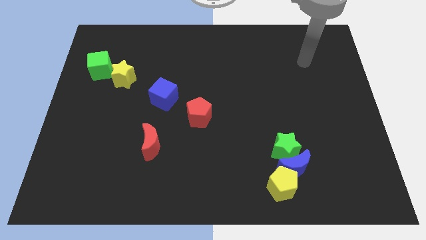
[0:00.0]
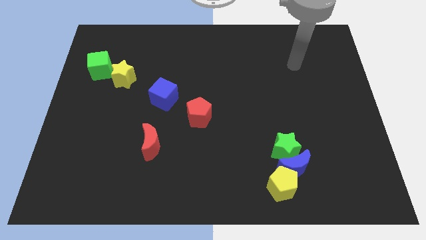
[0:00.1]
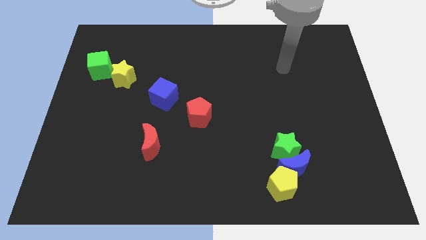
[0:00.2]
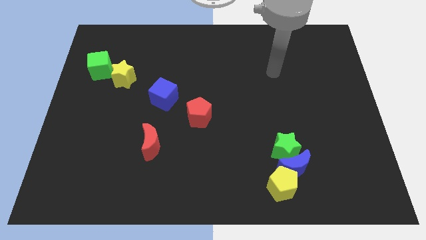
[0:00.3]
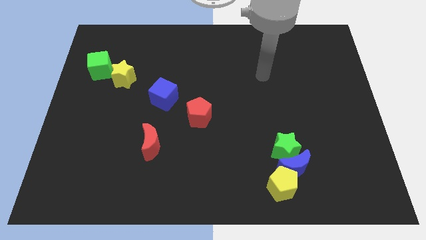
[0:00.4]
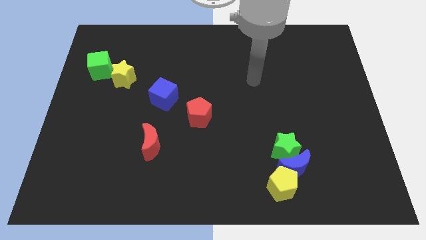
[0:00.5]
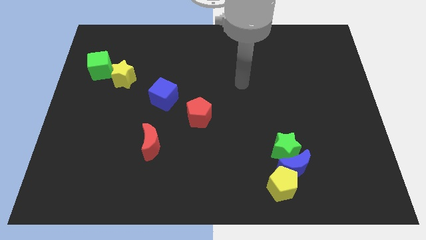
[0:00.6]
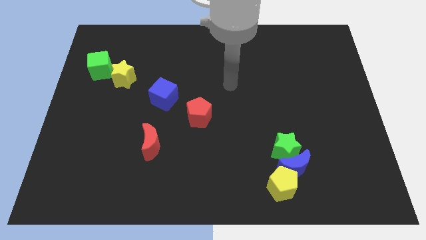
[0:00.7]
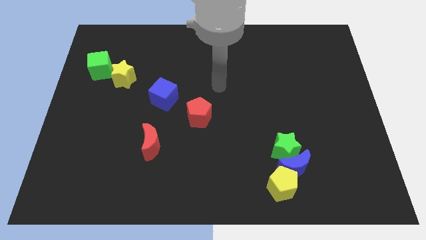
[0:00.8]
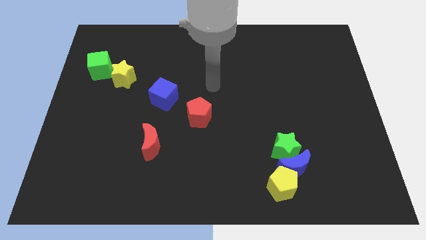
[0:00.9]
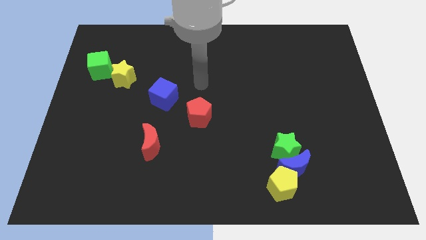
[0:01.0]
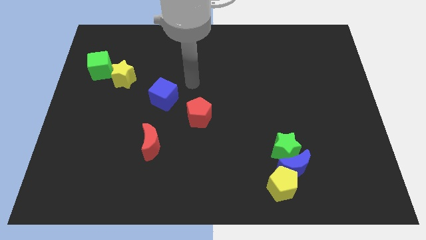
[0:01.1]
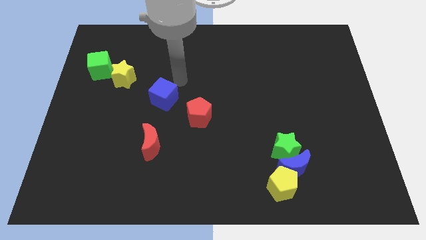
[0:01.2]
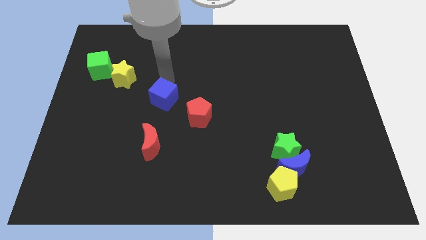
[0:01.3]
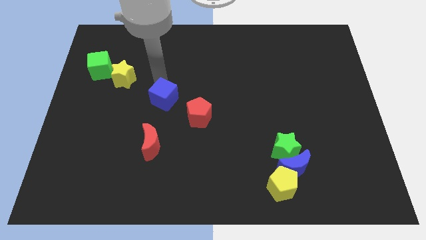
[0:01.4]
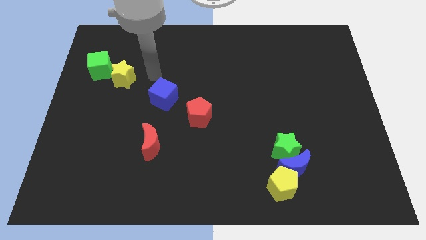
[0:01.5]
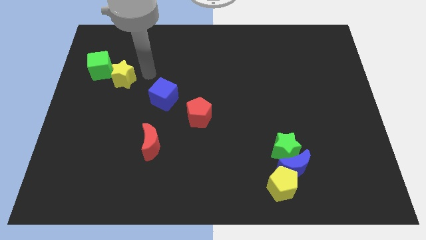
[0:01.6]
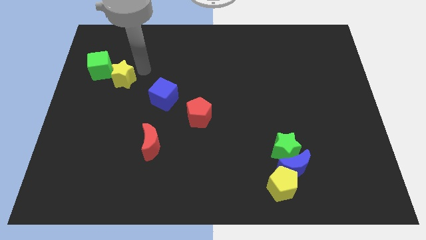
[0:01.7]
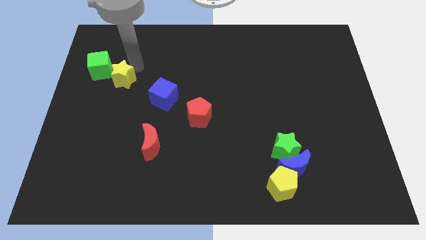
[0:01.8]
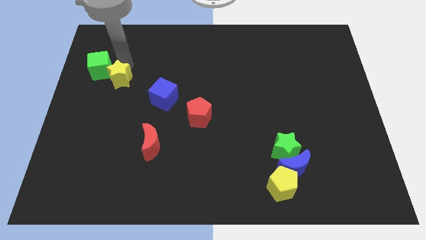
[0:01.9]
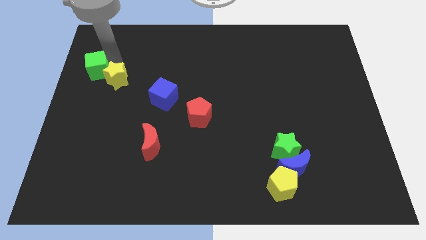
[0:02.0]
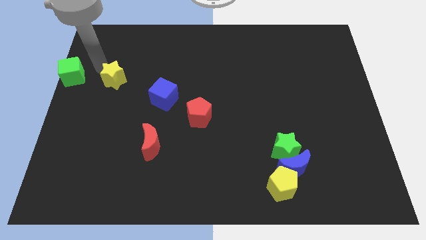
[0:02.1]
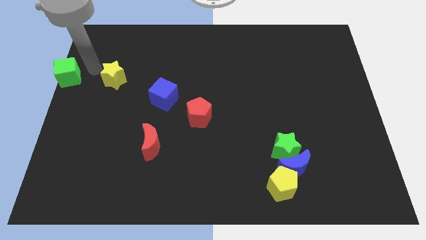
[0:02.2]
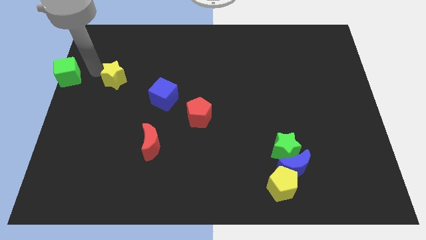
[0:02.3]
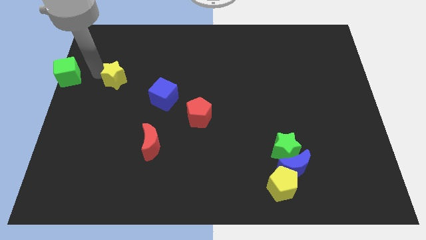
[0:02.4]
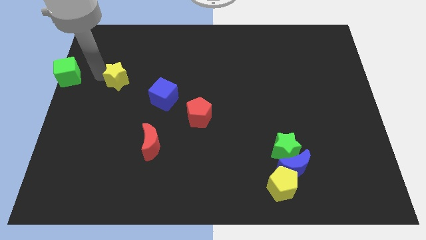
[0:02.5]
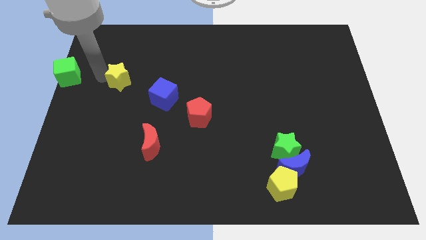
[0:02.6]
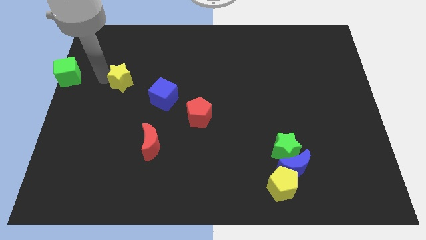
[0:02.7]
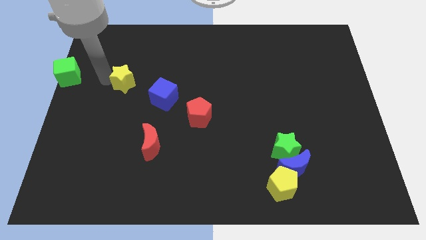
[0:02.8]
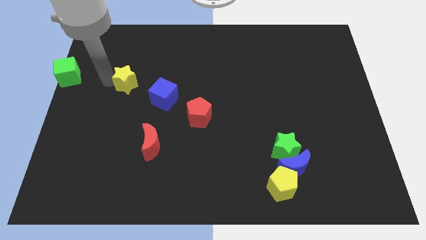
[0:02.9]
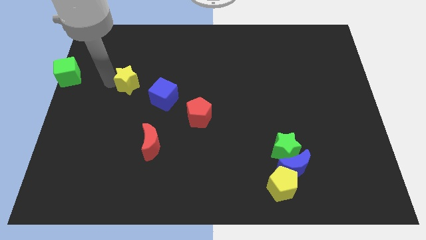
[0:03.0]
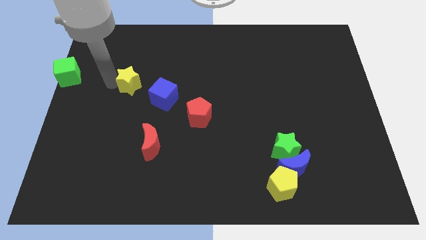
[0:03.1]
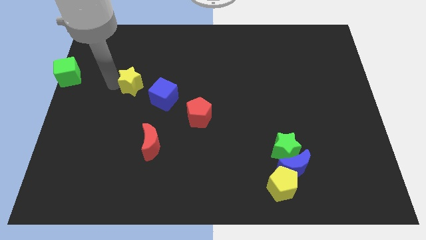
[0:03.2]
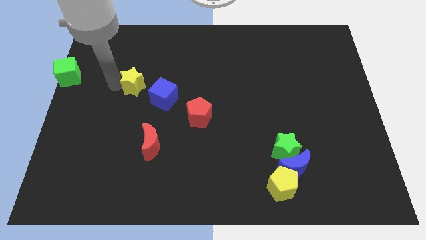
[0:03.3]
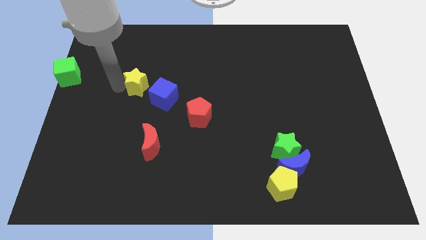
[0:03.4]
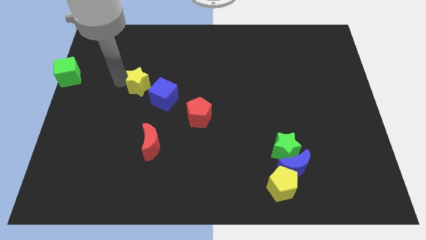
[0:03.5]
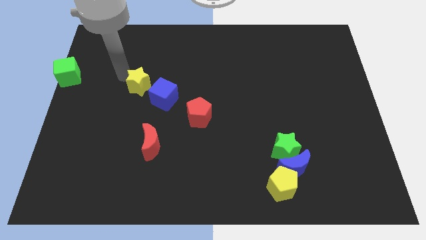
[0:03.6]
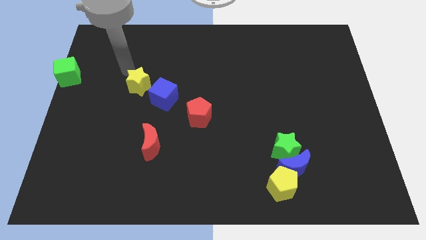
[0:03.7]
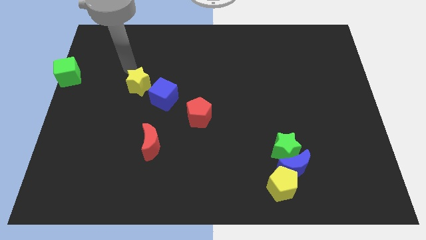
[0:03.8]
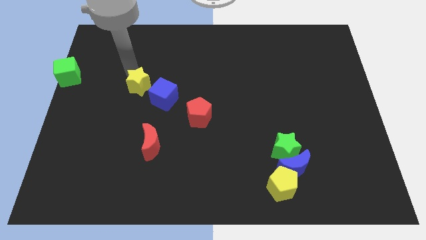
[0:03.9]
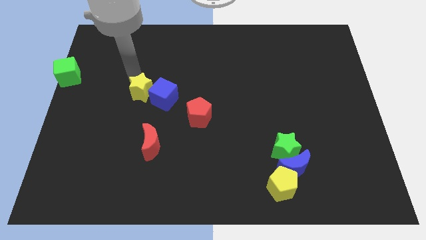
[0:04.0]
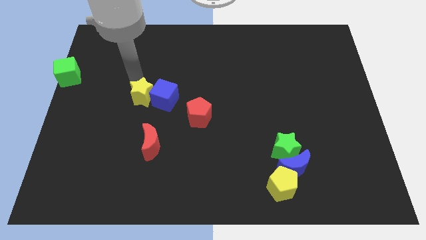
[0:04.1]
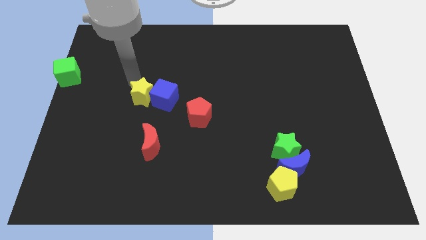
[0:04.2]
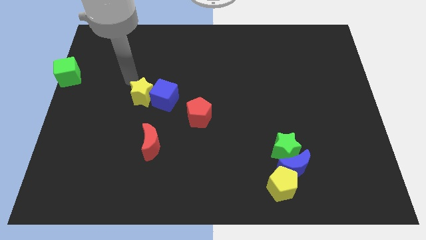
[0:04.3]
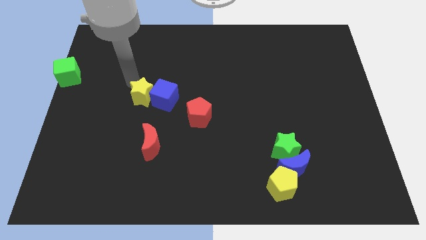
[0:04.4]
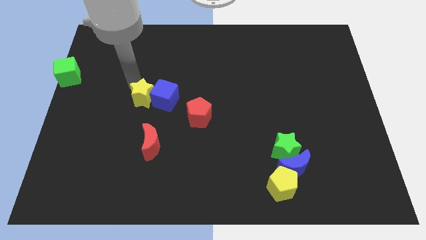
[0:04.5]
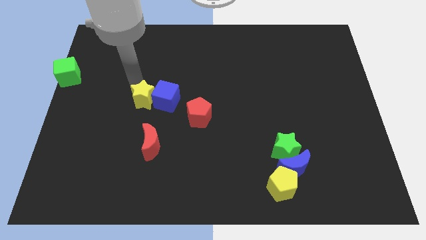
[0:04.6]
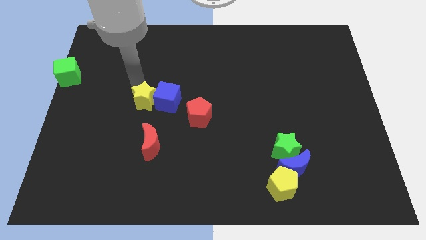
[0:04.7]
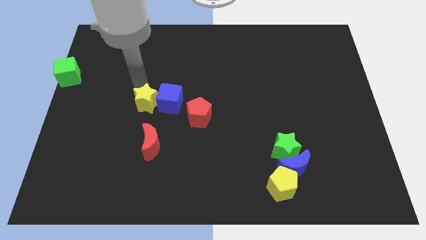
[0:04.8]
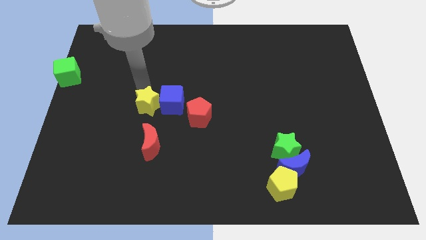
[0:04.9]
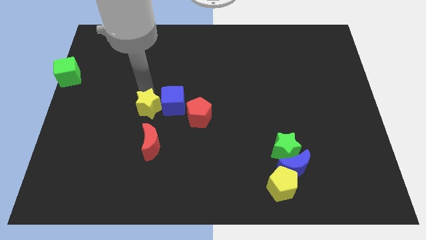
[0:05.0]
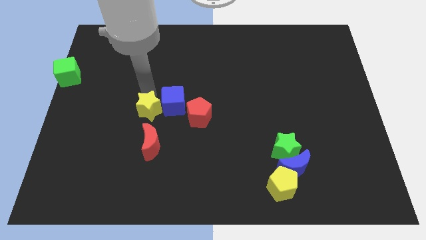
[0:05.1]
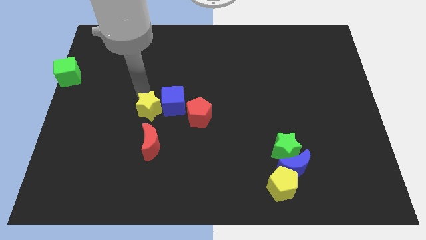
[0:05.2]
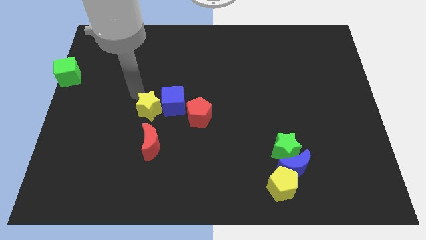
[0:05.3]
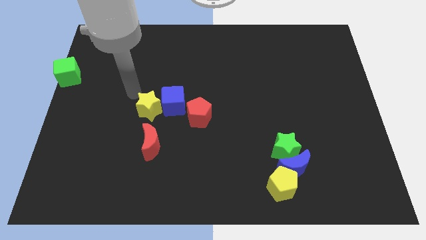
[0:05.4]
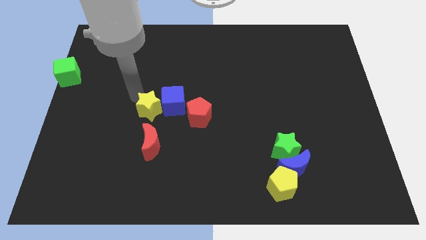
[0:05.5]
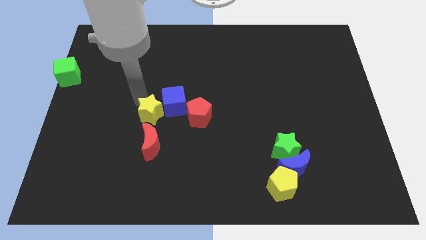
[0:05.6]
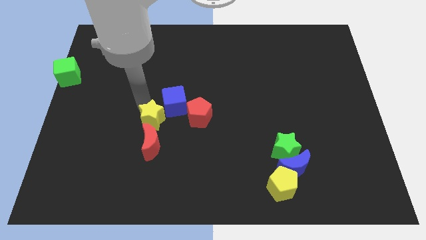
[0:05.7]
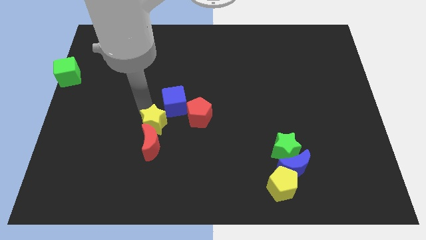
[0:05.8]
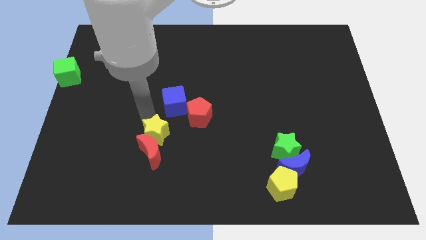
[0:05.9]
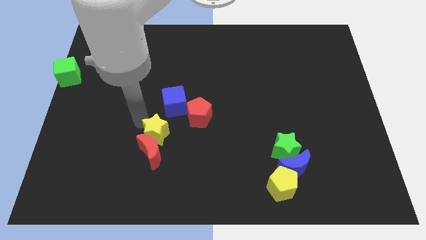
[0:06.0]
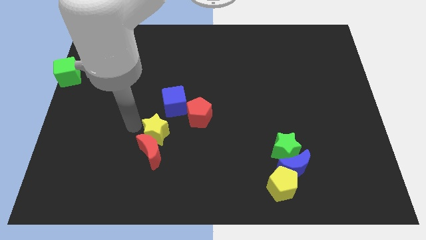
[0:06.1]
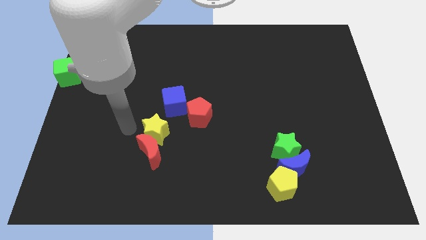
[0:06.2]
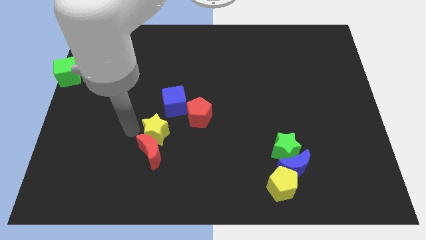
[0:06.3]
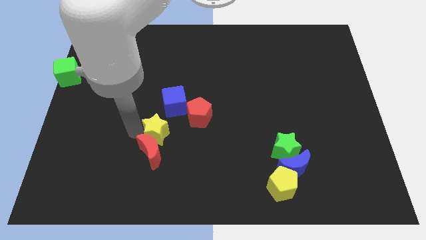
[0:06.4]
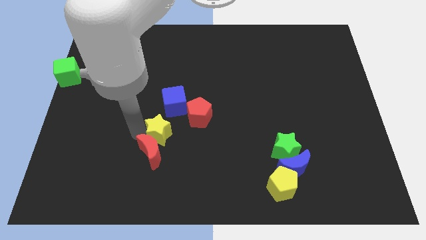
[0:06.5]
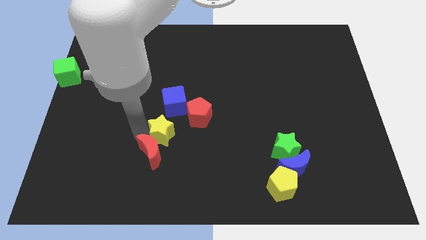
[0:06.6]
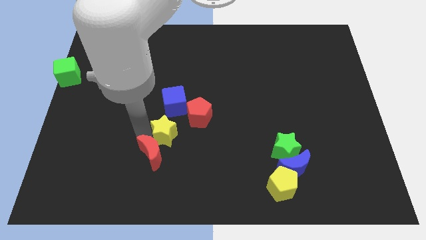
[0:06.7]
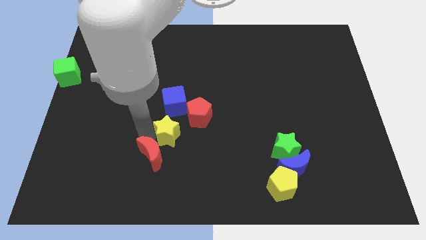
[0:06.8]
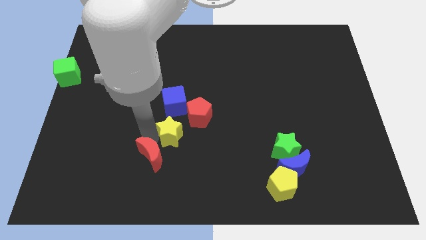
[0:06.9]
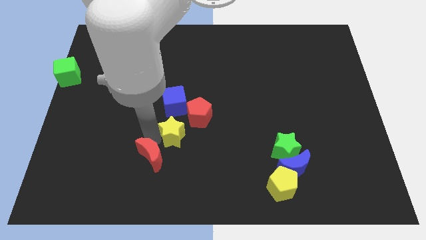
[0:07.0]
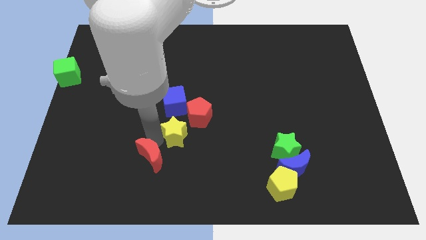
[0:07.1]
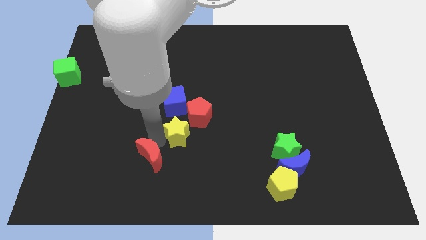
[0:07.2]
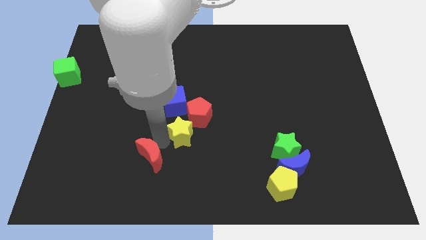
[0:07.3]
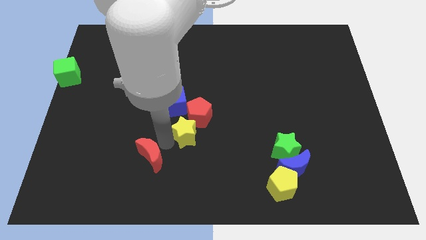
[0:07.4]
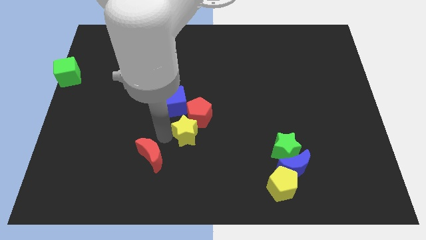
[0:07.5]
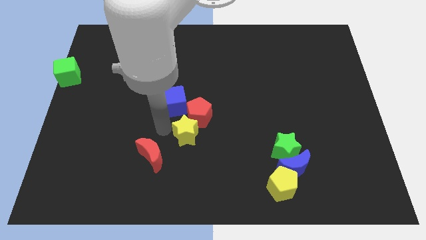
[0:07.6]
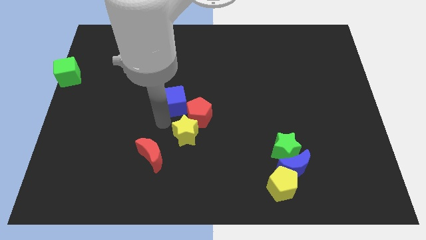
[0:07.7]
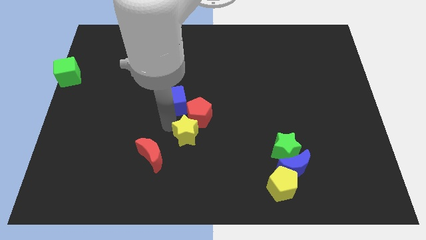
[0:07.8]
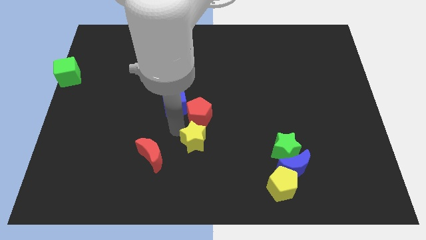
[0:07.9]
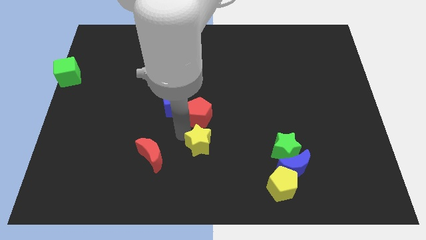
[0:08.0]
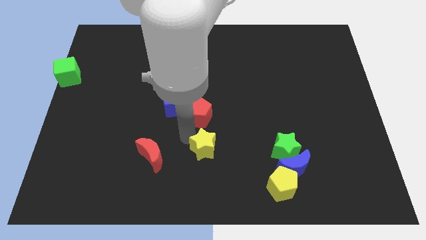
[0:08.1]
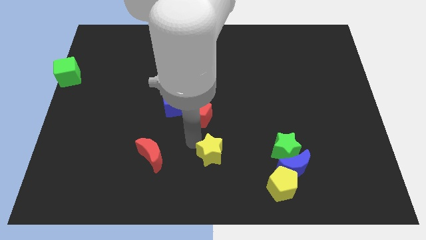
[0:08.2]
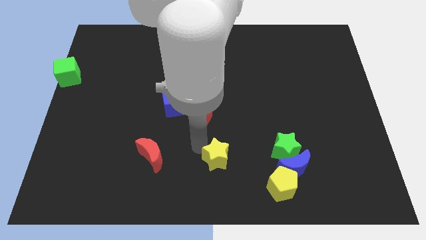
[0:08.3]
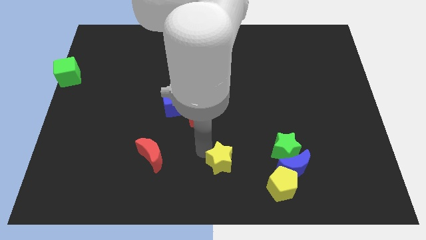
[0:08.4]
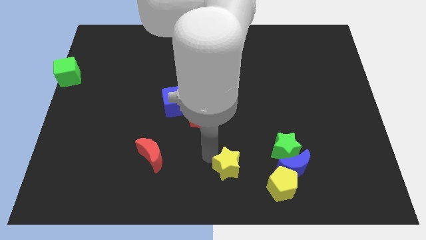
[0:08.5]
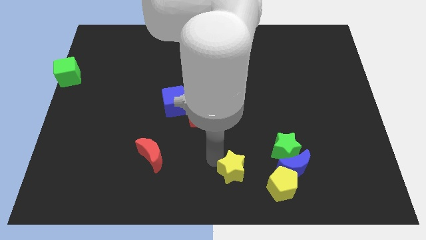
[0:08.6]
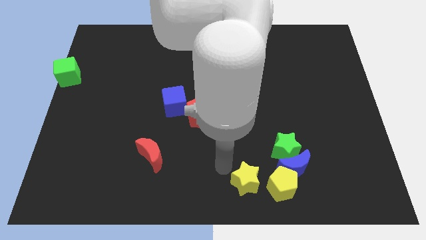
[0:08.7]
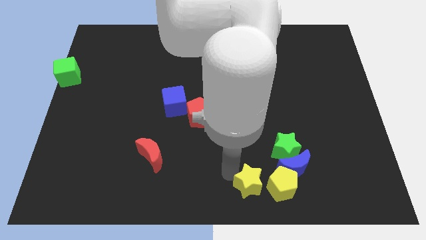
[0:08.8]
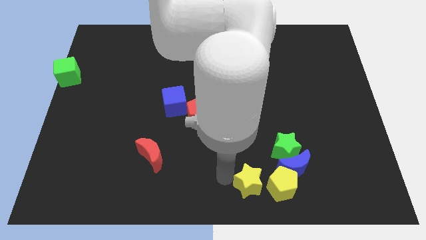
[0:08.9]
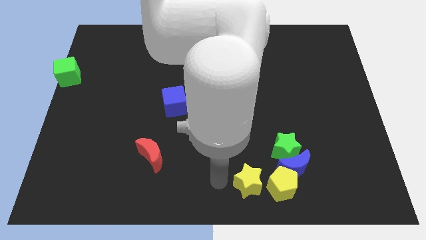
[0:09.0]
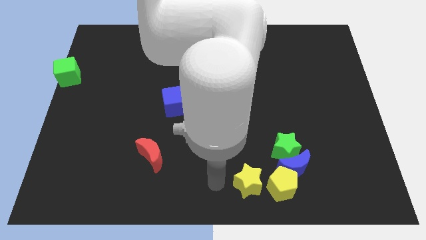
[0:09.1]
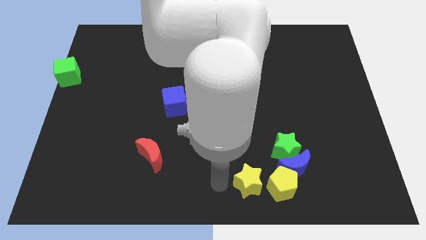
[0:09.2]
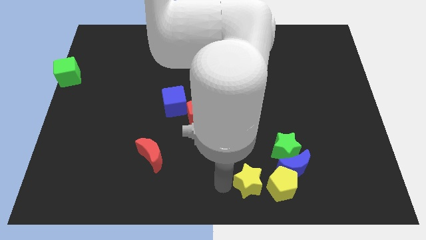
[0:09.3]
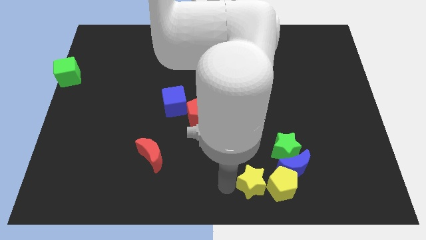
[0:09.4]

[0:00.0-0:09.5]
push the yellow star to the yellow pentagon
